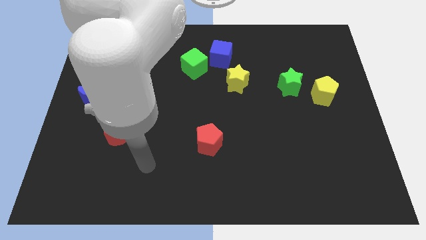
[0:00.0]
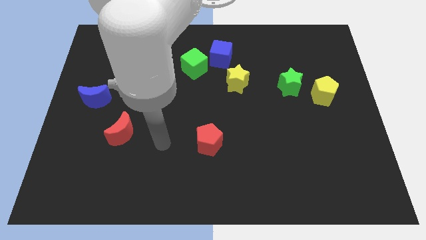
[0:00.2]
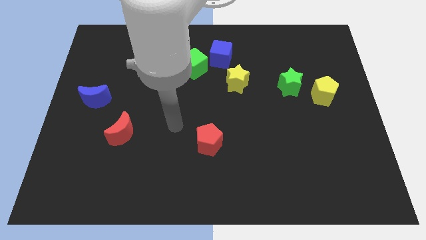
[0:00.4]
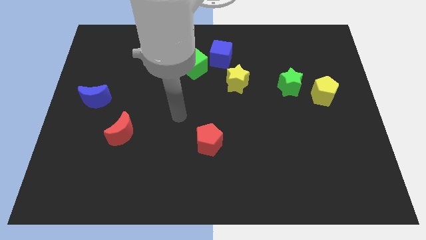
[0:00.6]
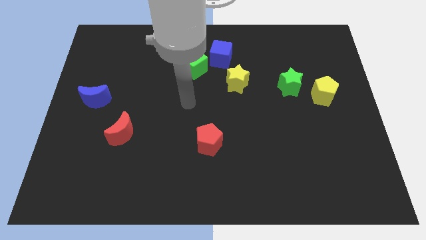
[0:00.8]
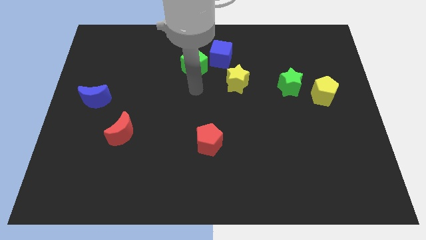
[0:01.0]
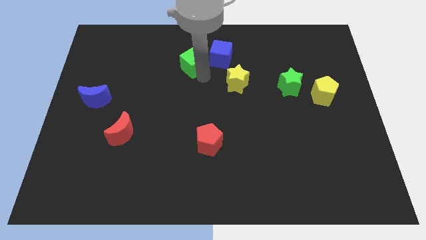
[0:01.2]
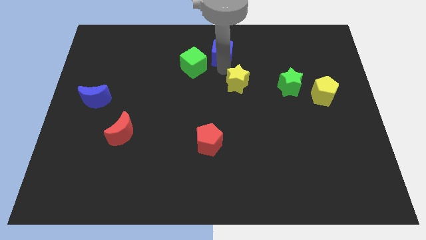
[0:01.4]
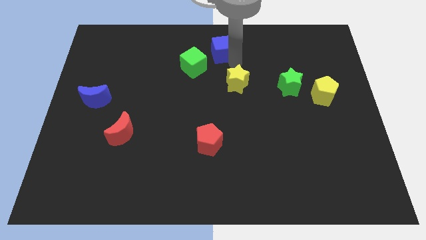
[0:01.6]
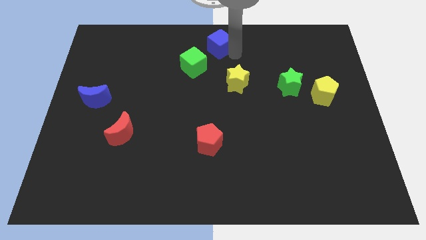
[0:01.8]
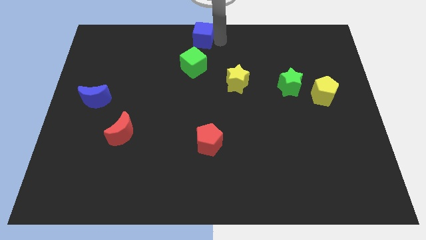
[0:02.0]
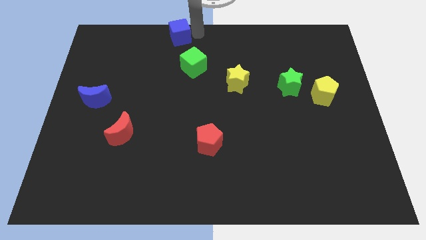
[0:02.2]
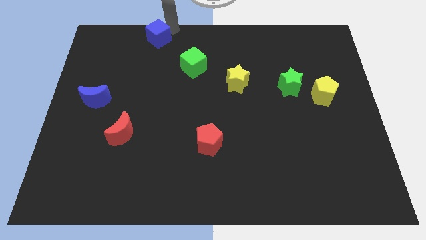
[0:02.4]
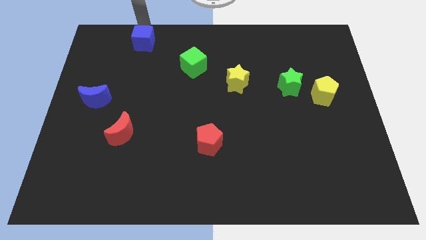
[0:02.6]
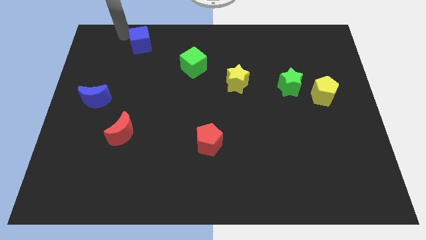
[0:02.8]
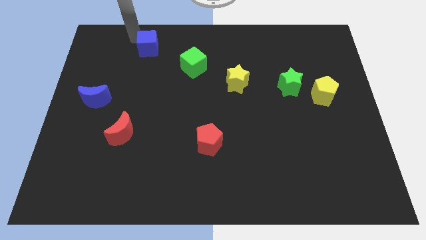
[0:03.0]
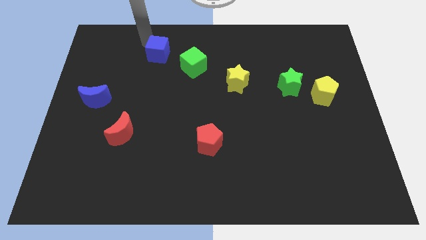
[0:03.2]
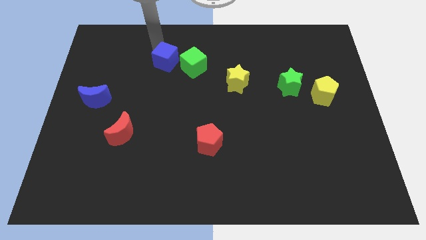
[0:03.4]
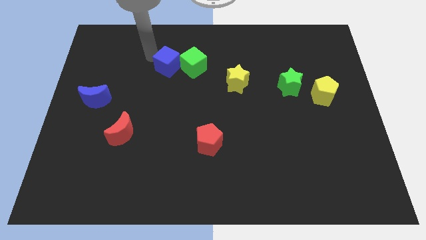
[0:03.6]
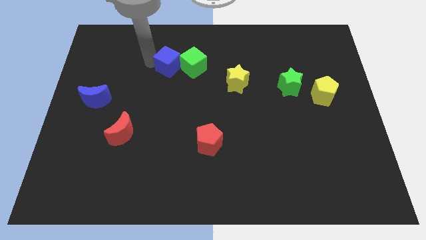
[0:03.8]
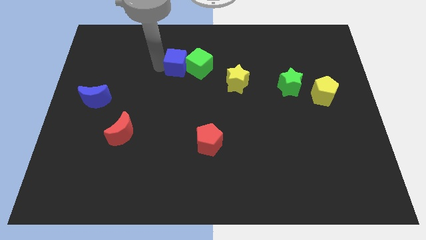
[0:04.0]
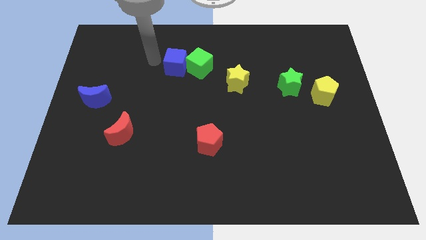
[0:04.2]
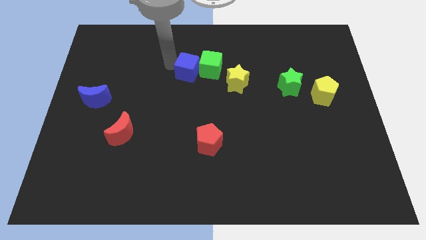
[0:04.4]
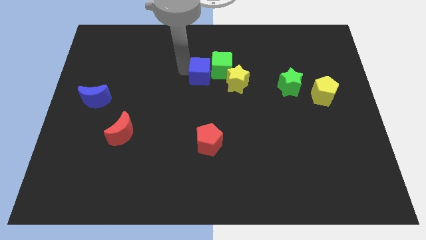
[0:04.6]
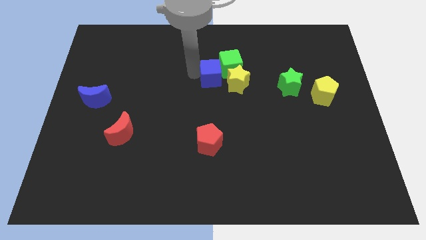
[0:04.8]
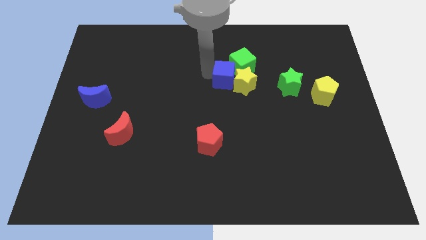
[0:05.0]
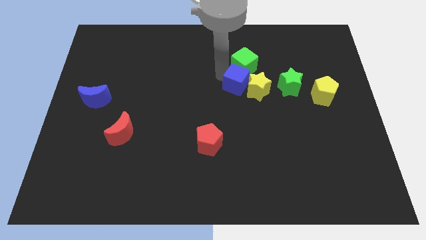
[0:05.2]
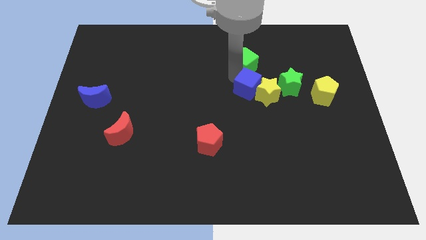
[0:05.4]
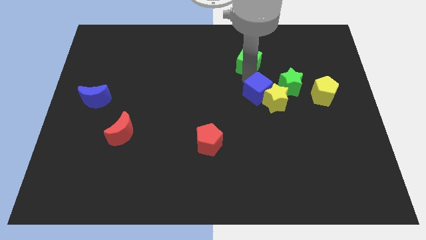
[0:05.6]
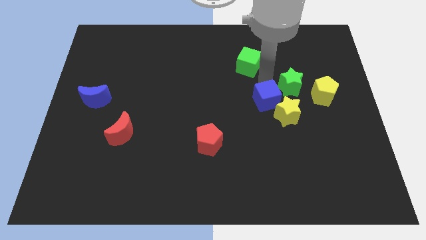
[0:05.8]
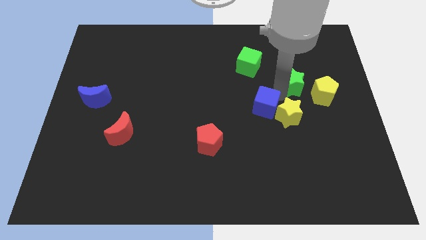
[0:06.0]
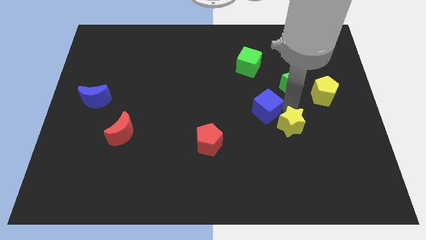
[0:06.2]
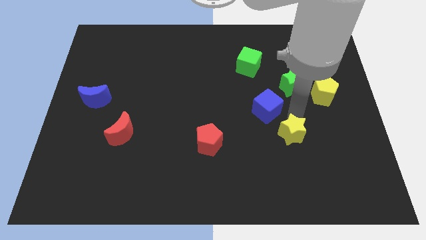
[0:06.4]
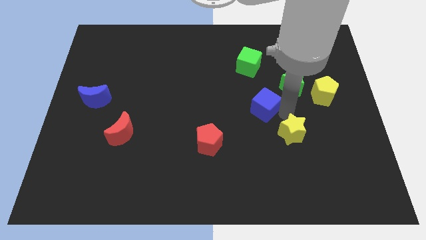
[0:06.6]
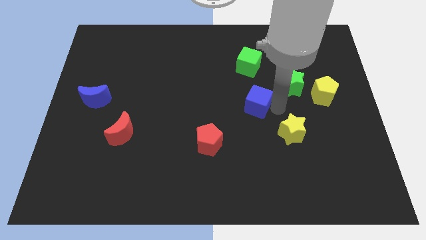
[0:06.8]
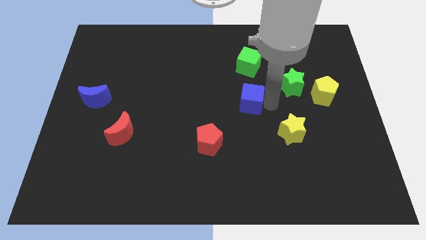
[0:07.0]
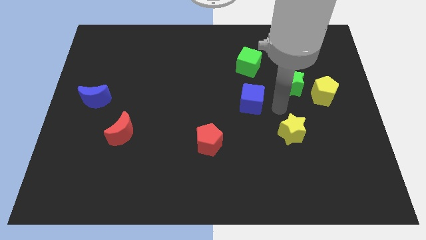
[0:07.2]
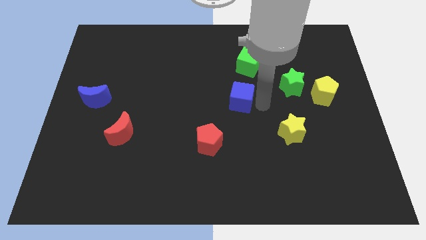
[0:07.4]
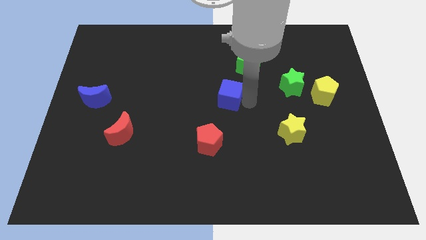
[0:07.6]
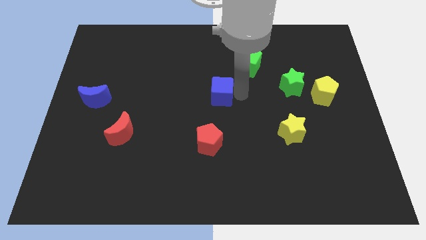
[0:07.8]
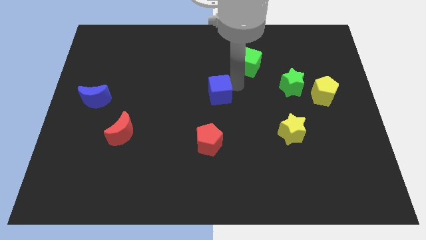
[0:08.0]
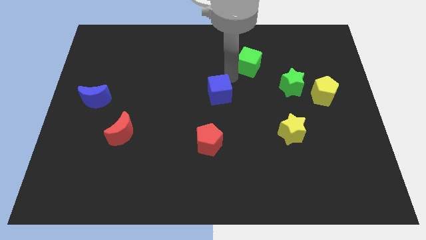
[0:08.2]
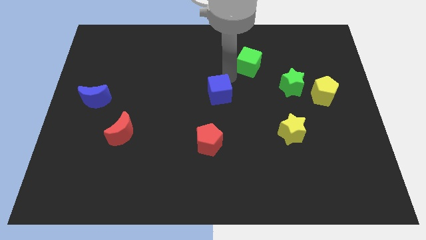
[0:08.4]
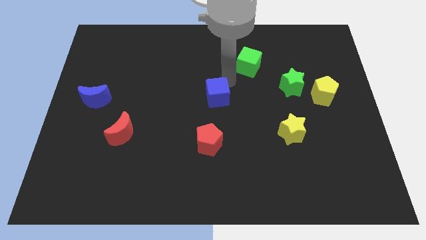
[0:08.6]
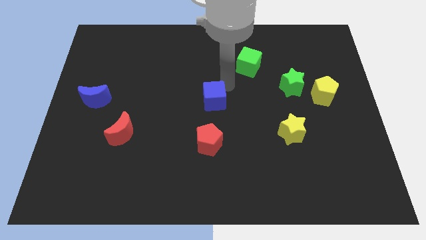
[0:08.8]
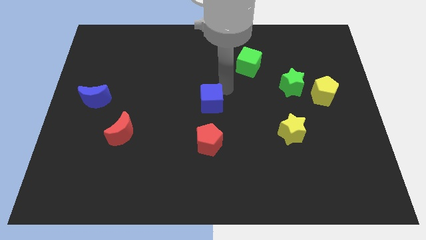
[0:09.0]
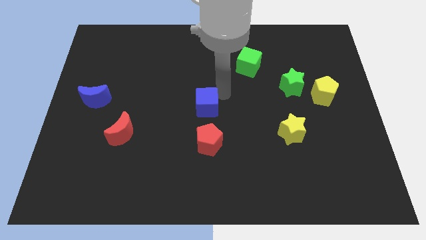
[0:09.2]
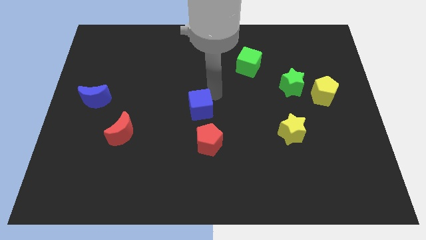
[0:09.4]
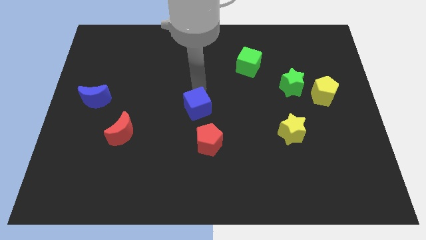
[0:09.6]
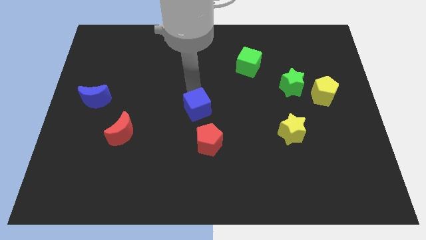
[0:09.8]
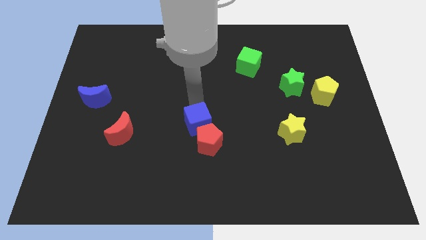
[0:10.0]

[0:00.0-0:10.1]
move the blue cube towards the red pentagon

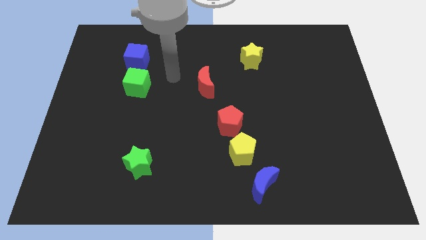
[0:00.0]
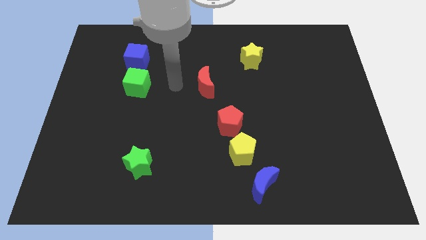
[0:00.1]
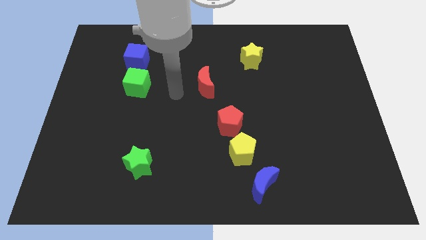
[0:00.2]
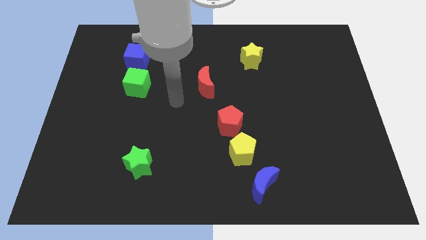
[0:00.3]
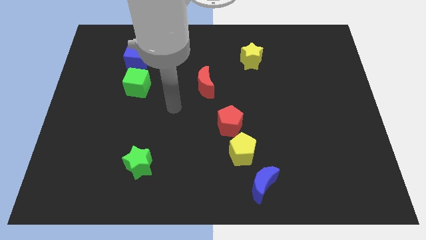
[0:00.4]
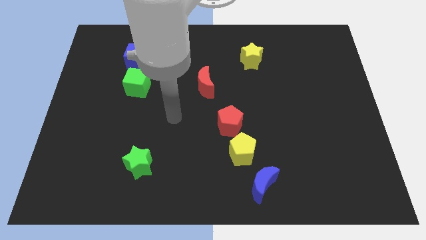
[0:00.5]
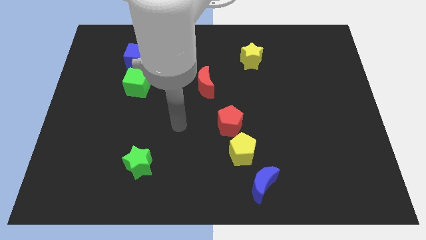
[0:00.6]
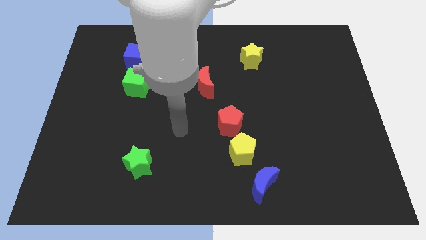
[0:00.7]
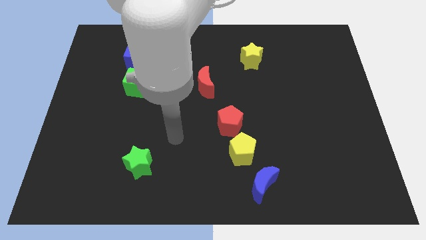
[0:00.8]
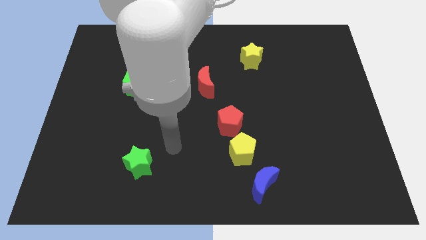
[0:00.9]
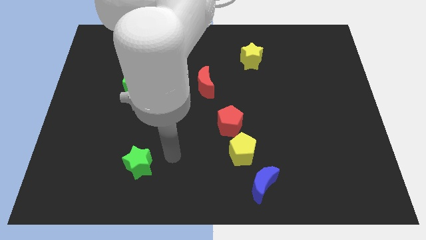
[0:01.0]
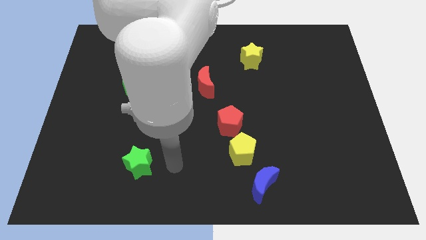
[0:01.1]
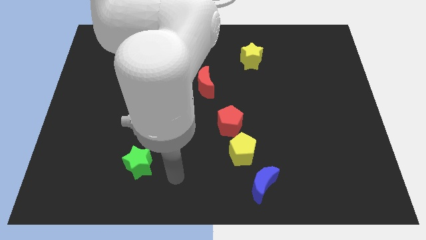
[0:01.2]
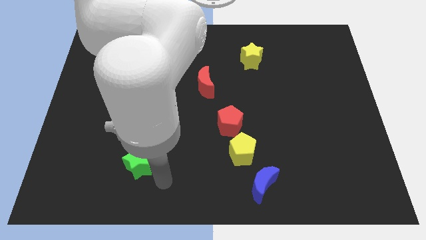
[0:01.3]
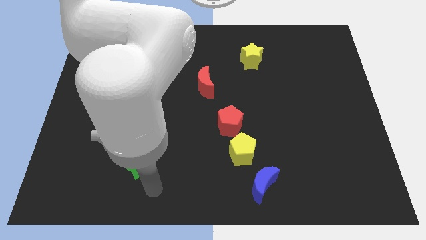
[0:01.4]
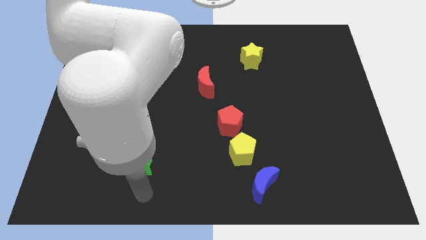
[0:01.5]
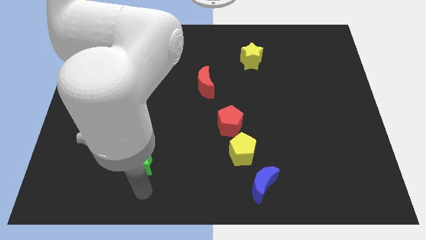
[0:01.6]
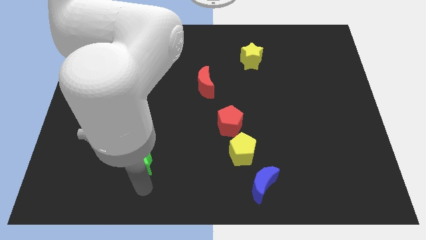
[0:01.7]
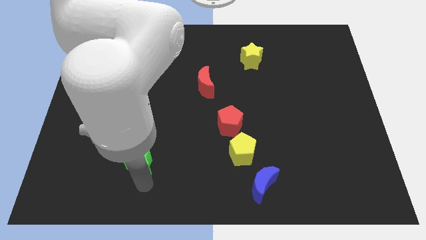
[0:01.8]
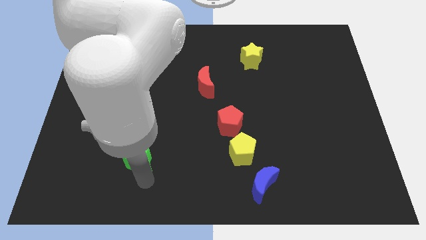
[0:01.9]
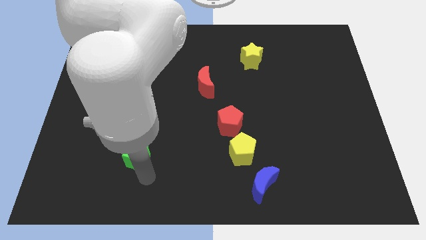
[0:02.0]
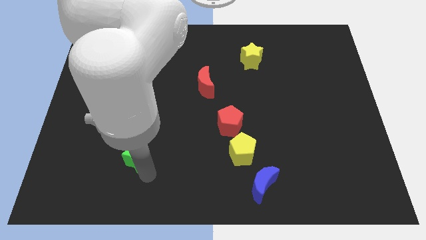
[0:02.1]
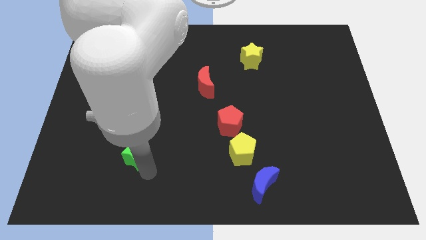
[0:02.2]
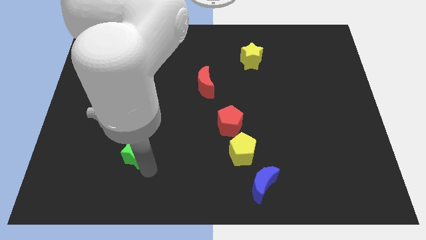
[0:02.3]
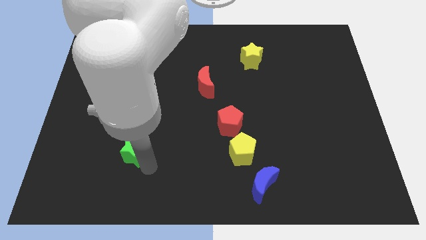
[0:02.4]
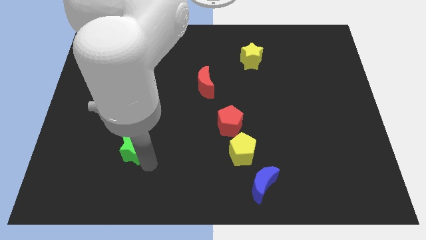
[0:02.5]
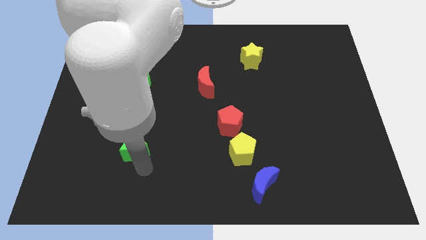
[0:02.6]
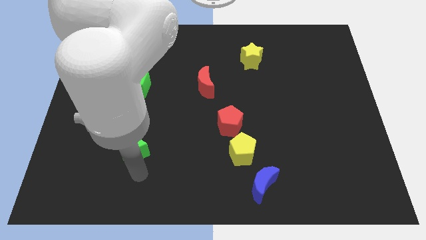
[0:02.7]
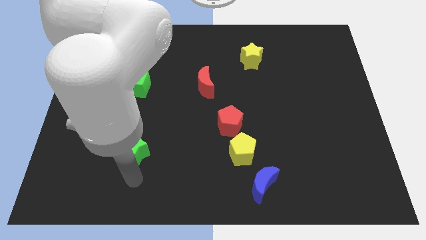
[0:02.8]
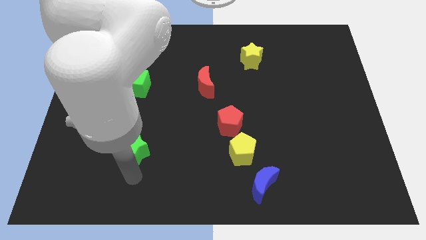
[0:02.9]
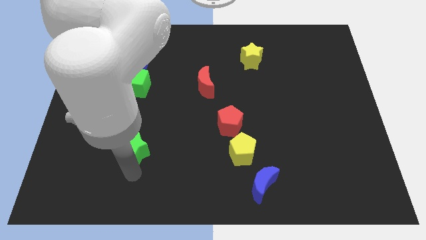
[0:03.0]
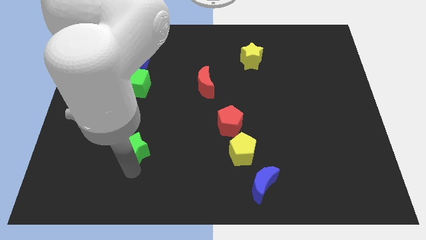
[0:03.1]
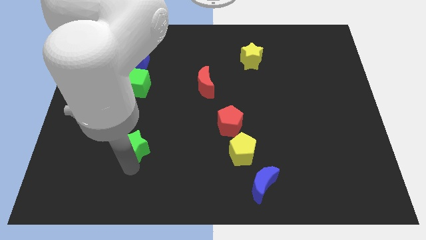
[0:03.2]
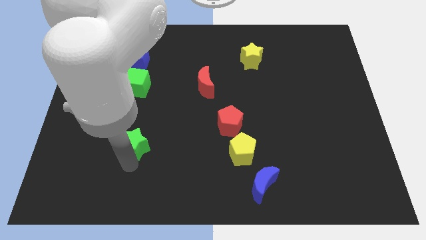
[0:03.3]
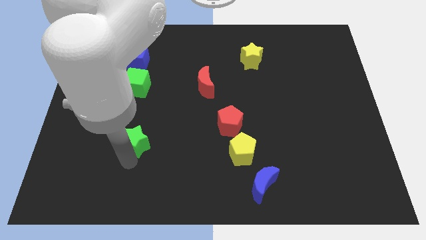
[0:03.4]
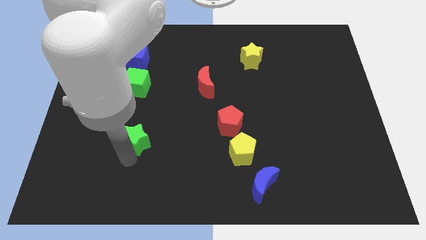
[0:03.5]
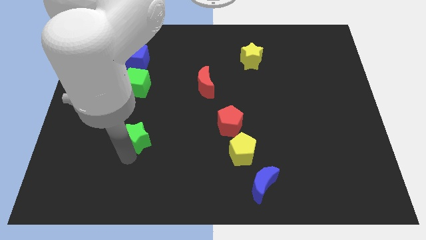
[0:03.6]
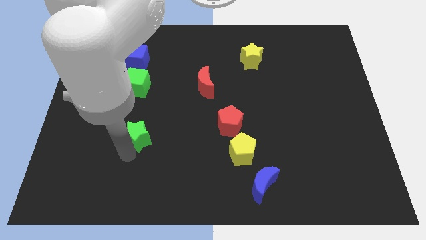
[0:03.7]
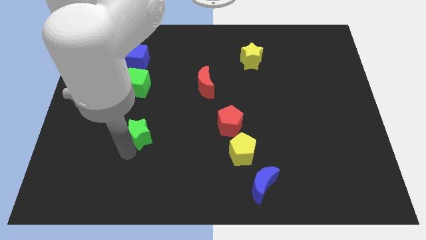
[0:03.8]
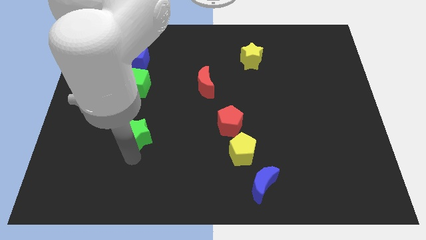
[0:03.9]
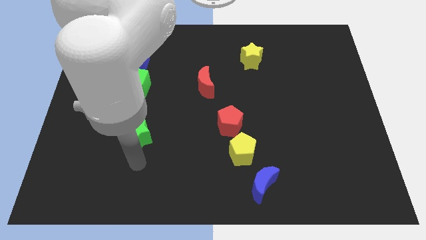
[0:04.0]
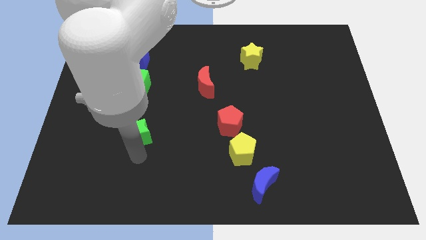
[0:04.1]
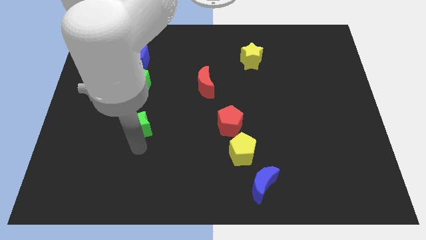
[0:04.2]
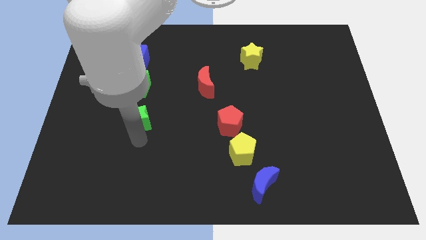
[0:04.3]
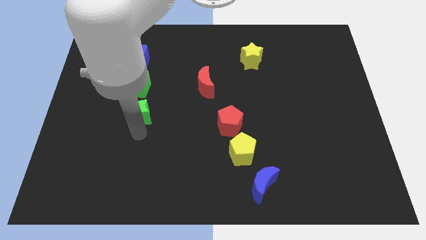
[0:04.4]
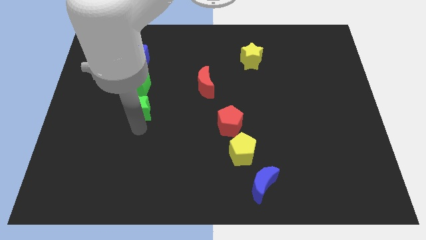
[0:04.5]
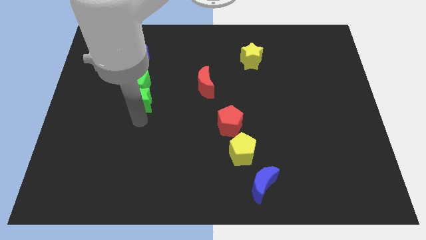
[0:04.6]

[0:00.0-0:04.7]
slide the green star to the green cube
